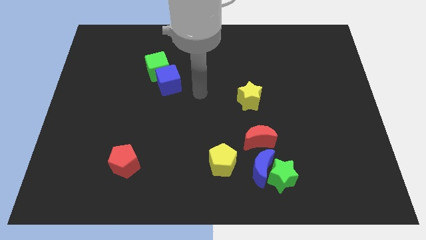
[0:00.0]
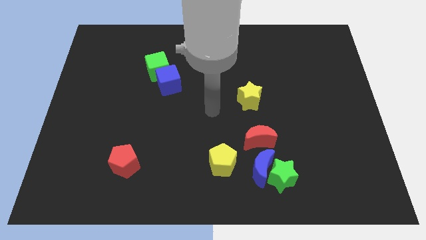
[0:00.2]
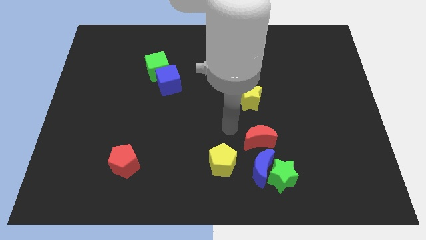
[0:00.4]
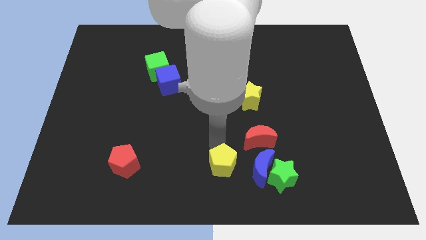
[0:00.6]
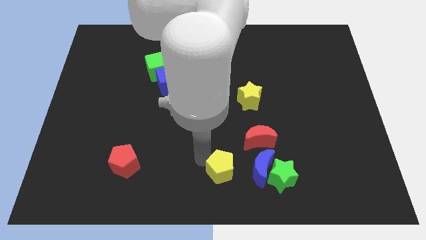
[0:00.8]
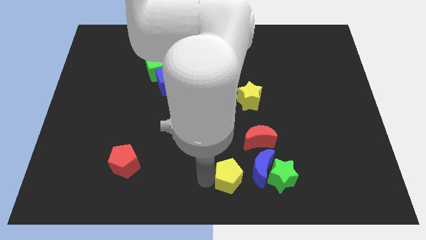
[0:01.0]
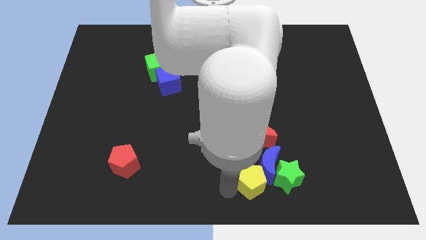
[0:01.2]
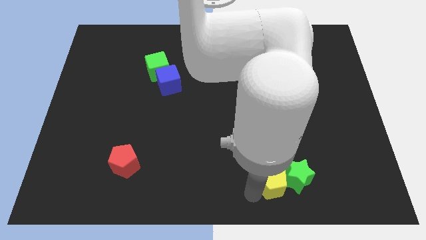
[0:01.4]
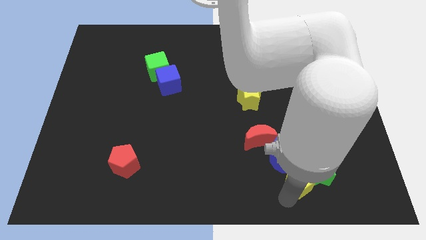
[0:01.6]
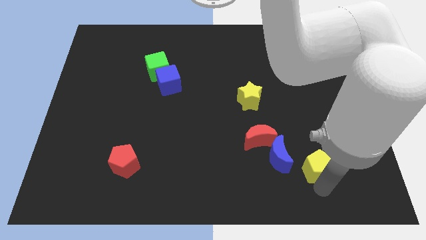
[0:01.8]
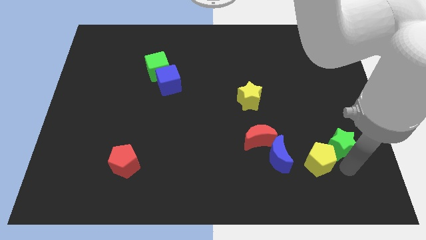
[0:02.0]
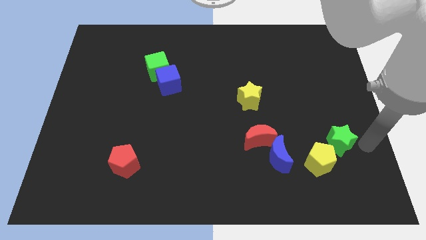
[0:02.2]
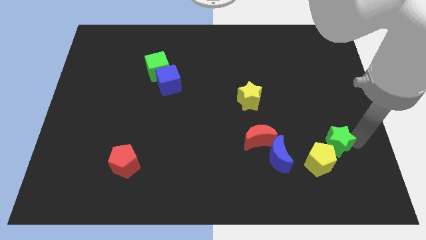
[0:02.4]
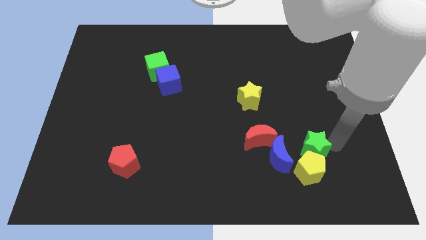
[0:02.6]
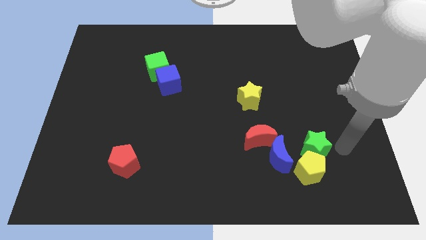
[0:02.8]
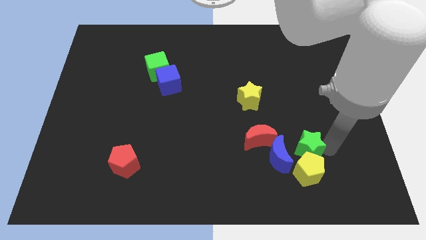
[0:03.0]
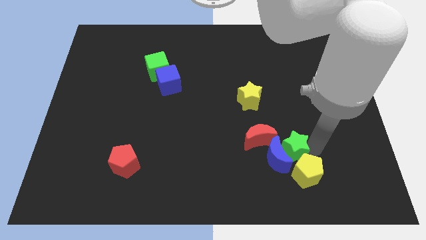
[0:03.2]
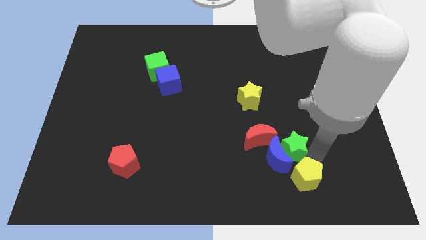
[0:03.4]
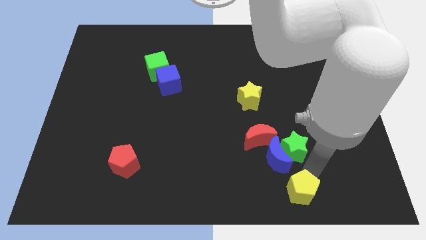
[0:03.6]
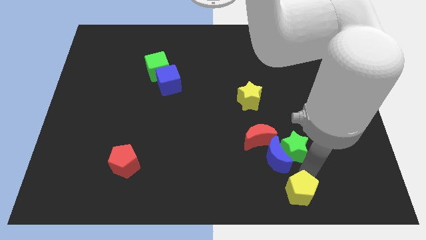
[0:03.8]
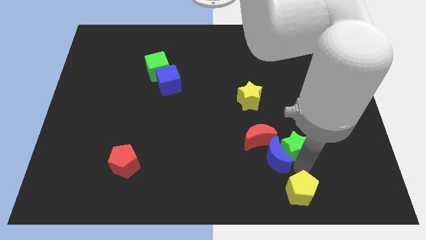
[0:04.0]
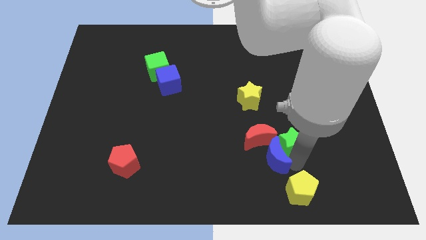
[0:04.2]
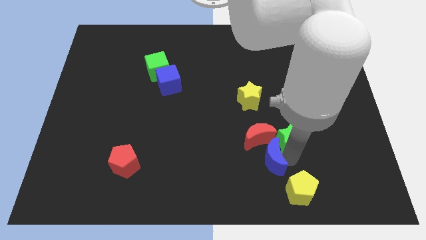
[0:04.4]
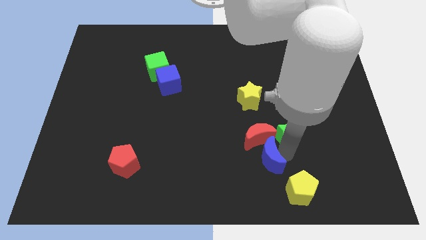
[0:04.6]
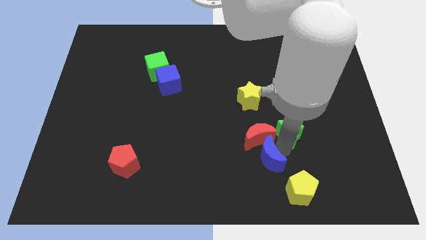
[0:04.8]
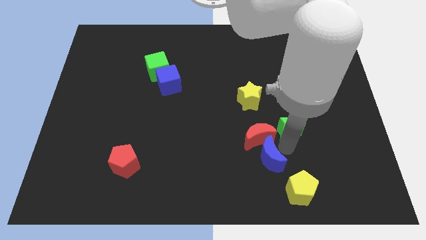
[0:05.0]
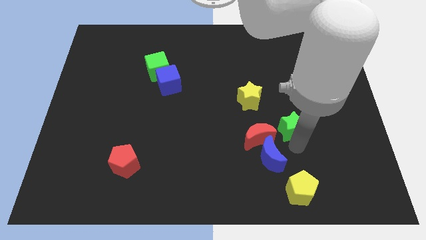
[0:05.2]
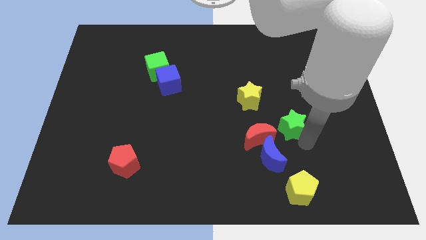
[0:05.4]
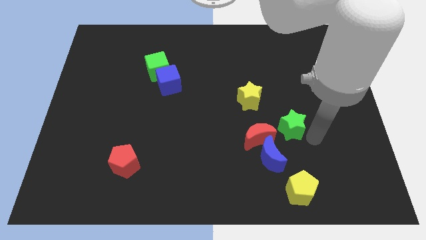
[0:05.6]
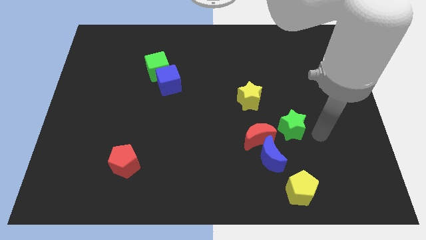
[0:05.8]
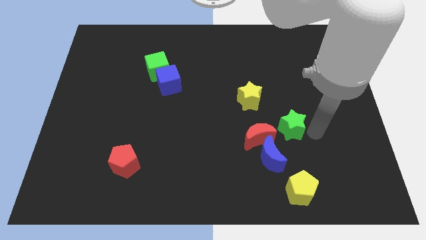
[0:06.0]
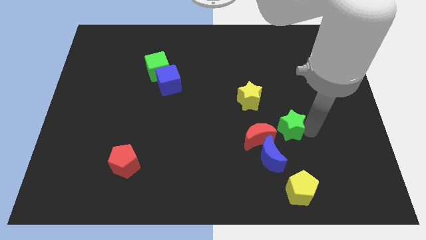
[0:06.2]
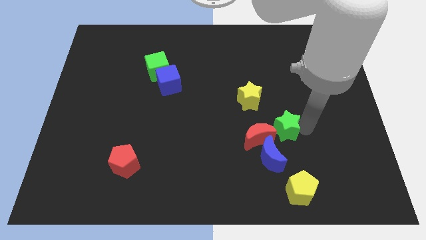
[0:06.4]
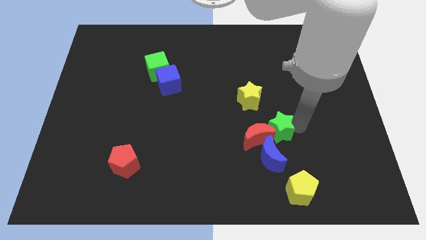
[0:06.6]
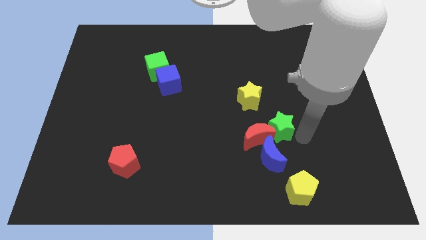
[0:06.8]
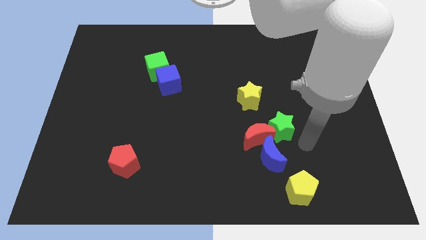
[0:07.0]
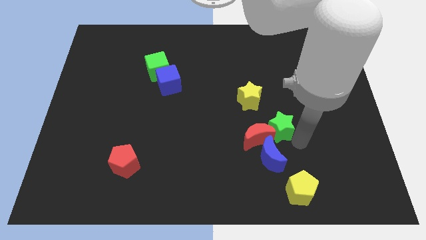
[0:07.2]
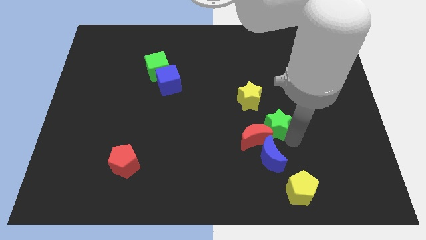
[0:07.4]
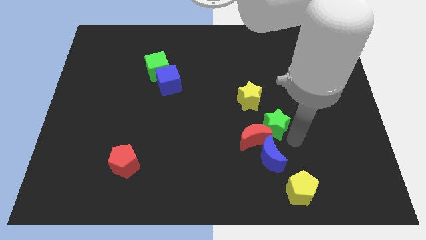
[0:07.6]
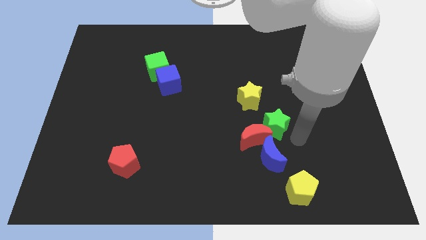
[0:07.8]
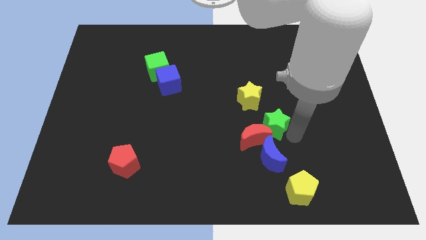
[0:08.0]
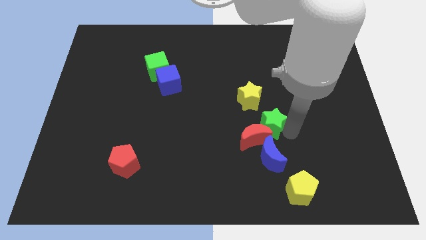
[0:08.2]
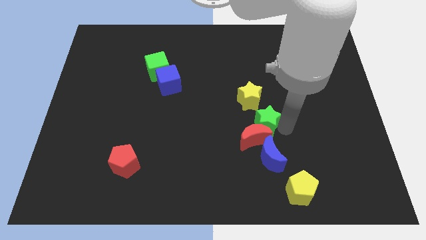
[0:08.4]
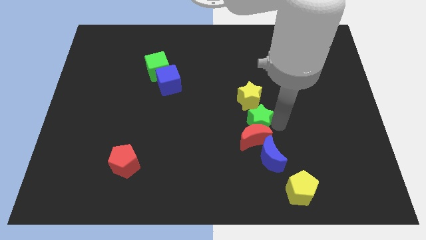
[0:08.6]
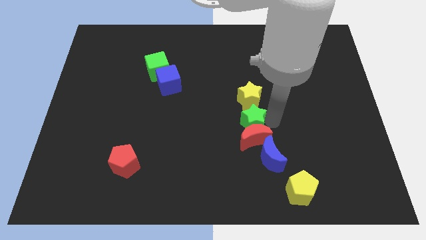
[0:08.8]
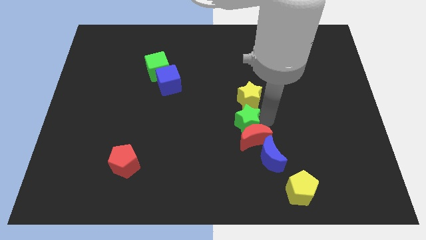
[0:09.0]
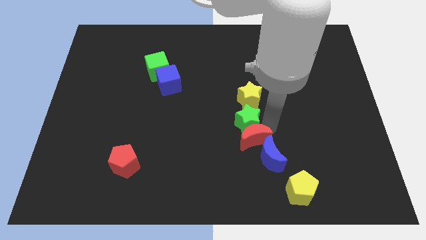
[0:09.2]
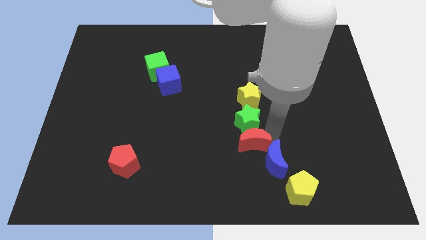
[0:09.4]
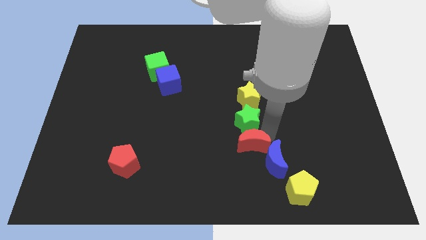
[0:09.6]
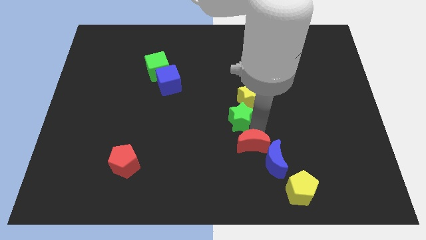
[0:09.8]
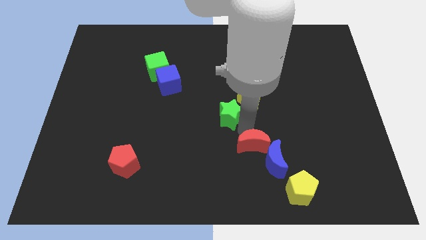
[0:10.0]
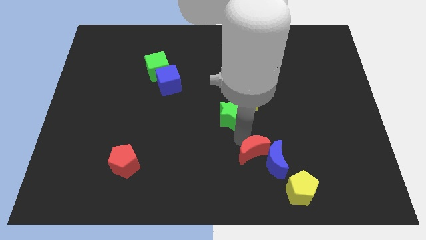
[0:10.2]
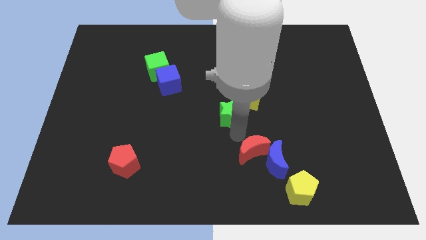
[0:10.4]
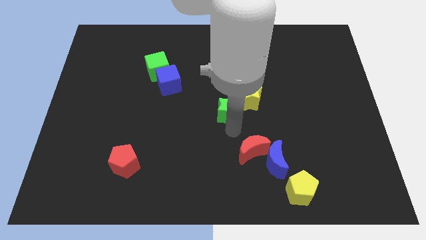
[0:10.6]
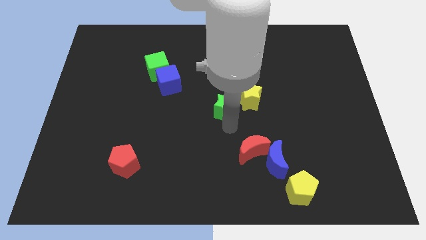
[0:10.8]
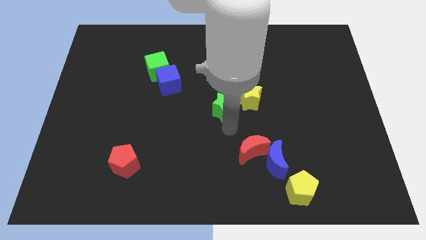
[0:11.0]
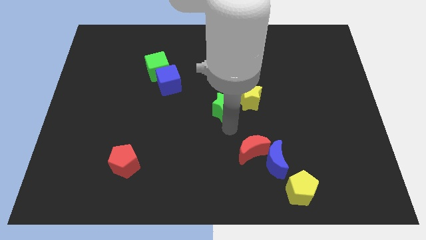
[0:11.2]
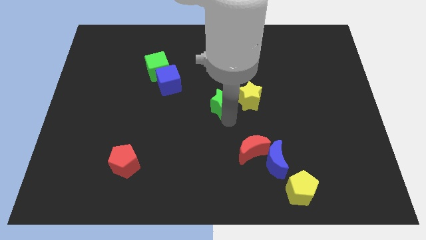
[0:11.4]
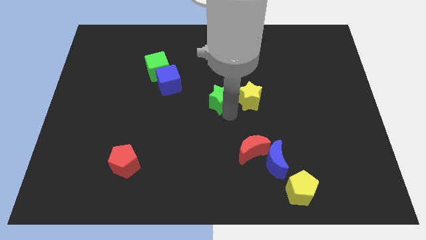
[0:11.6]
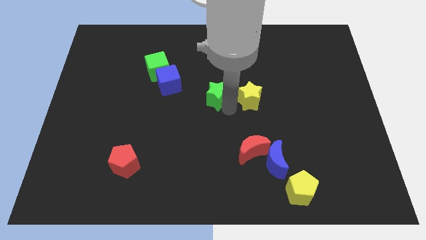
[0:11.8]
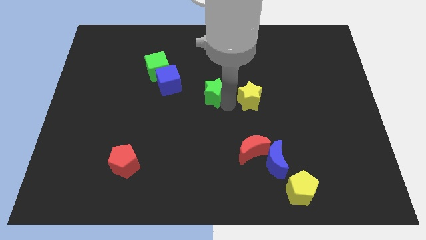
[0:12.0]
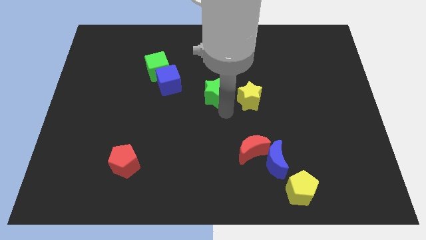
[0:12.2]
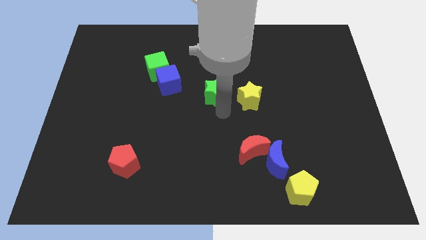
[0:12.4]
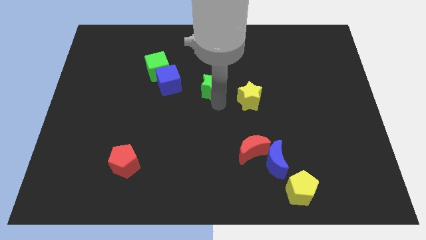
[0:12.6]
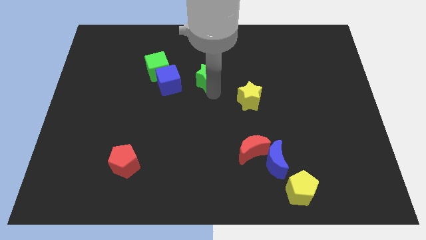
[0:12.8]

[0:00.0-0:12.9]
move the green star to the right of the green cube

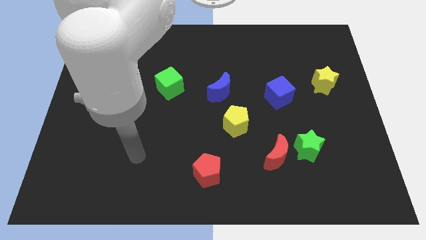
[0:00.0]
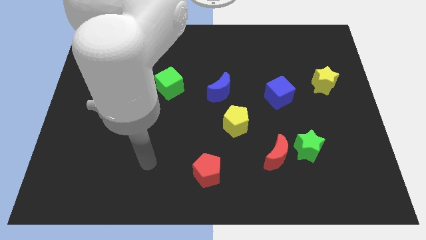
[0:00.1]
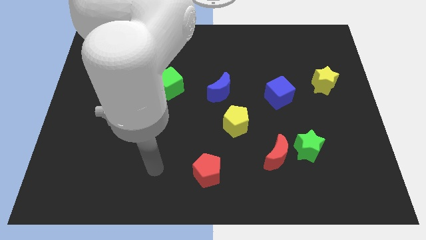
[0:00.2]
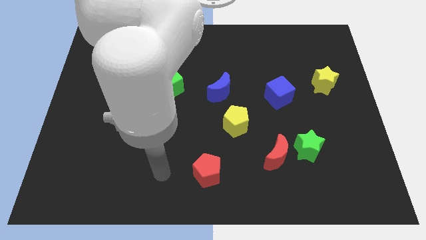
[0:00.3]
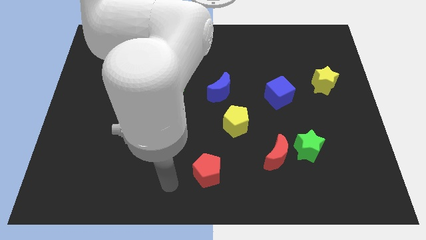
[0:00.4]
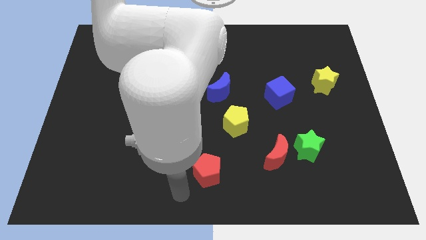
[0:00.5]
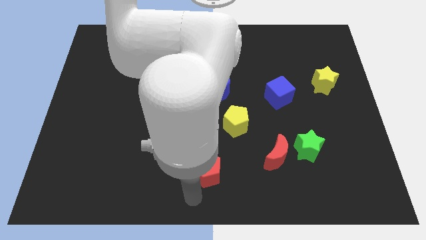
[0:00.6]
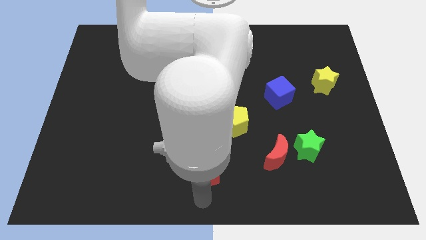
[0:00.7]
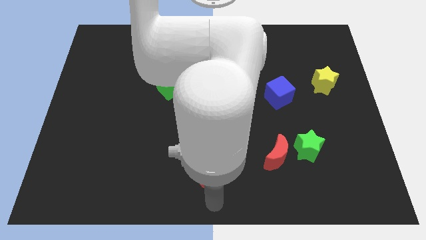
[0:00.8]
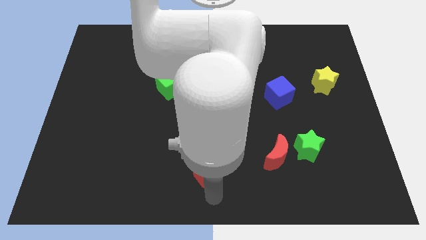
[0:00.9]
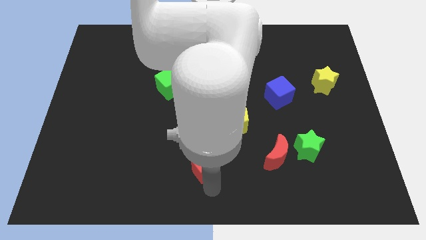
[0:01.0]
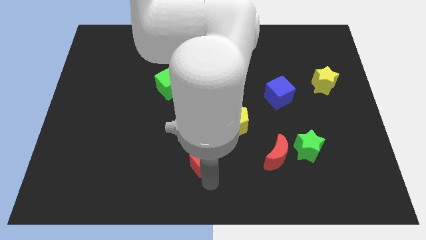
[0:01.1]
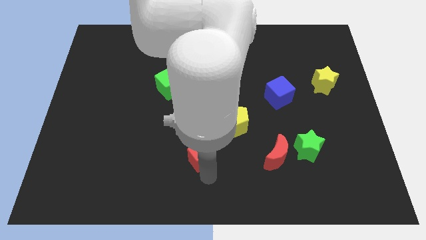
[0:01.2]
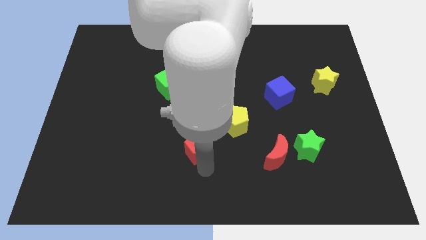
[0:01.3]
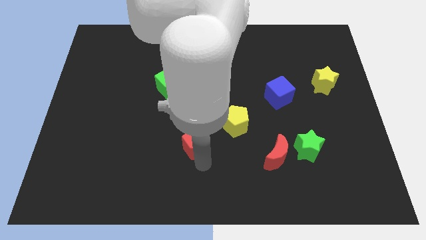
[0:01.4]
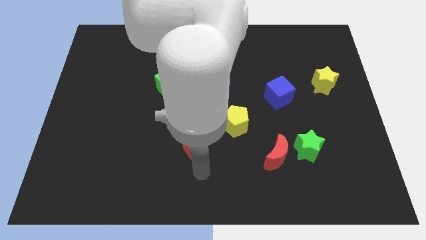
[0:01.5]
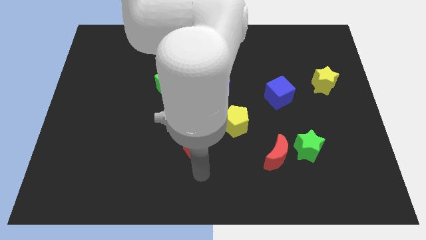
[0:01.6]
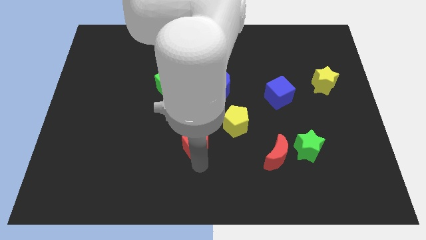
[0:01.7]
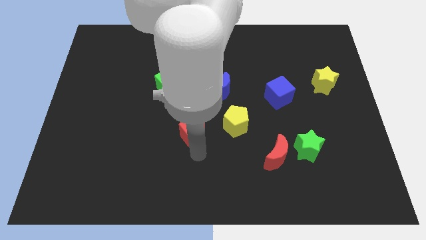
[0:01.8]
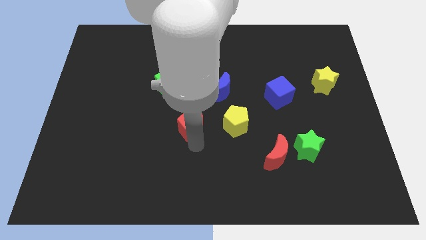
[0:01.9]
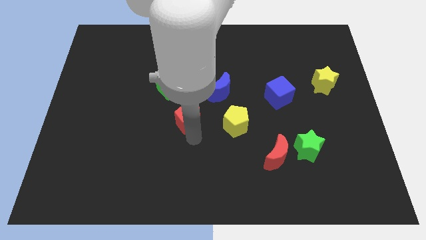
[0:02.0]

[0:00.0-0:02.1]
put the red pentagon to the bottom right of the green cube
